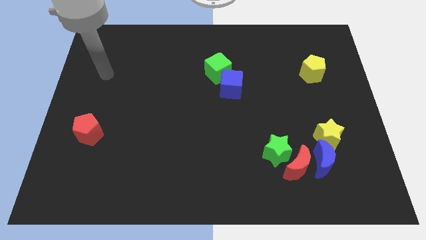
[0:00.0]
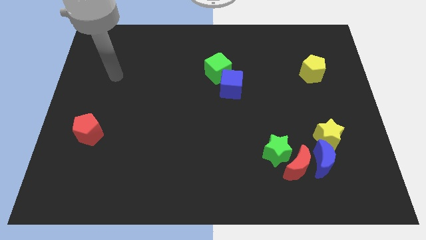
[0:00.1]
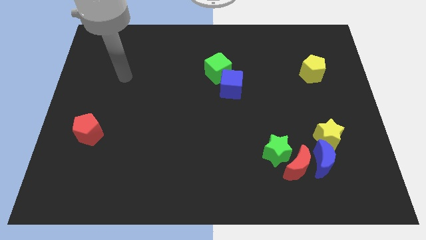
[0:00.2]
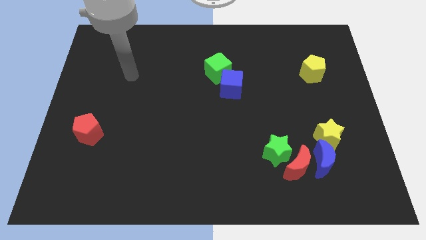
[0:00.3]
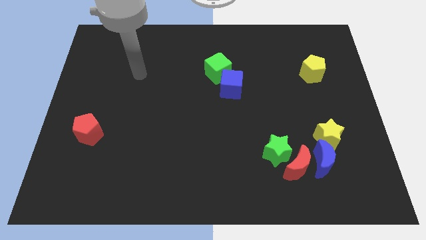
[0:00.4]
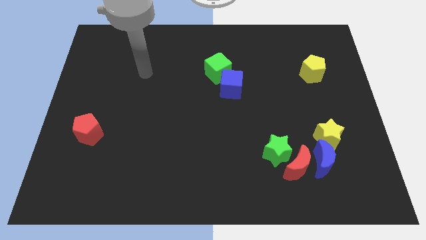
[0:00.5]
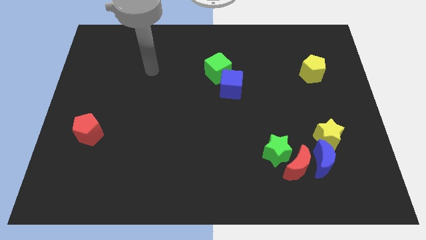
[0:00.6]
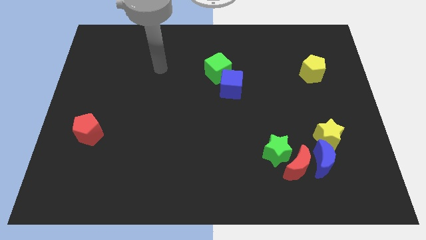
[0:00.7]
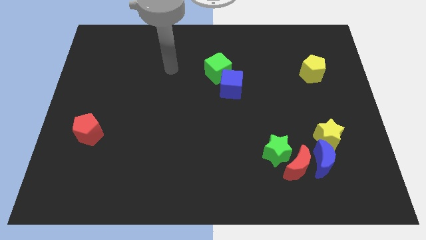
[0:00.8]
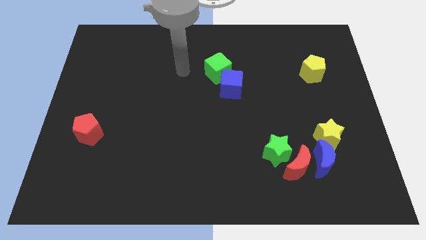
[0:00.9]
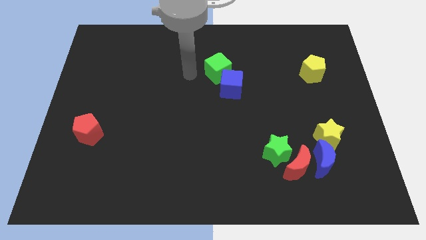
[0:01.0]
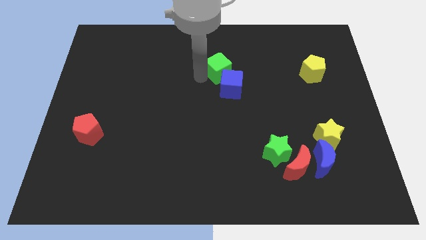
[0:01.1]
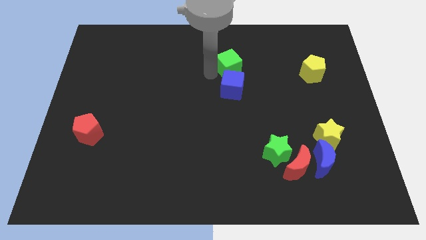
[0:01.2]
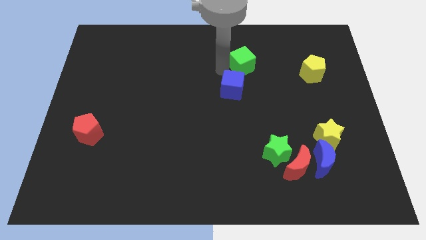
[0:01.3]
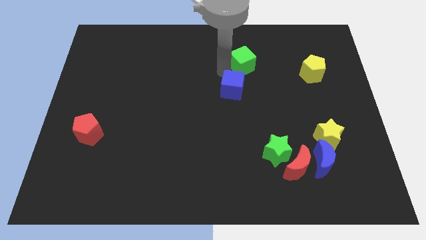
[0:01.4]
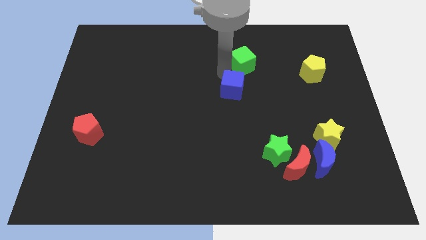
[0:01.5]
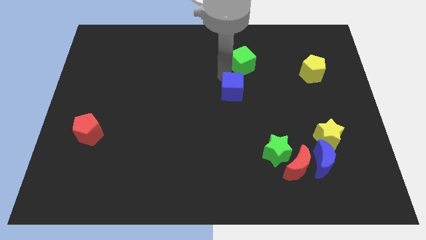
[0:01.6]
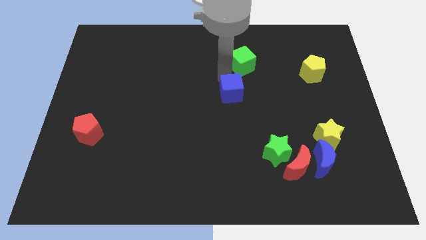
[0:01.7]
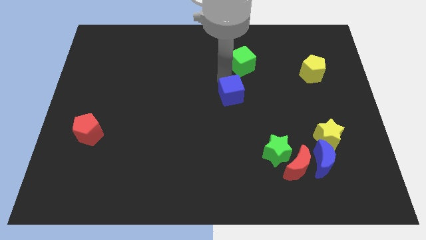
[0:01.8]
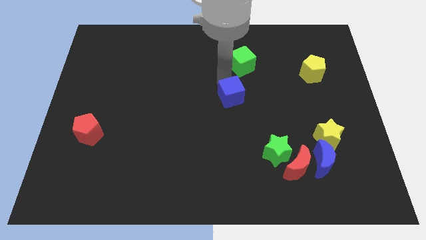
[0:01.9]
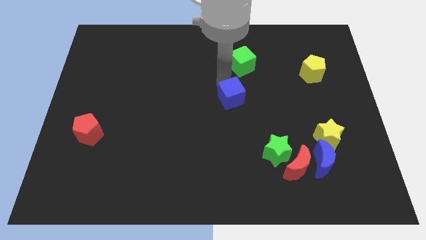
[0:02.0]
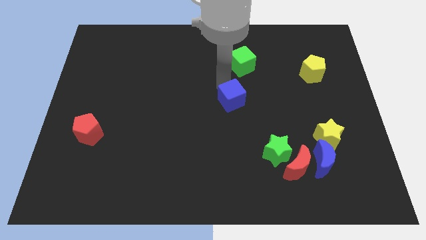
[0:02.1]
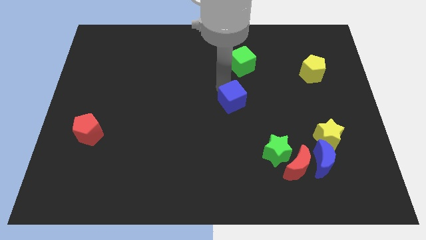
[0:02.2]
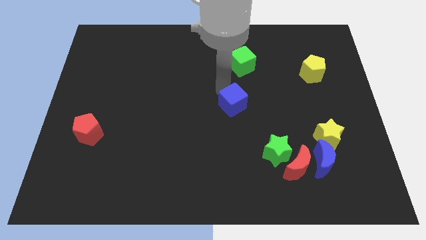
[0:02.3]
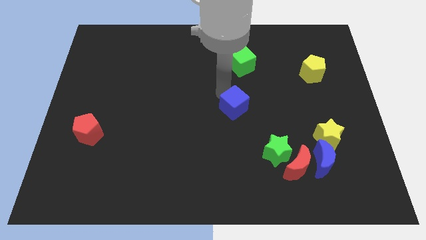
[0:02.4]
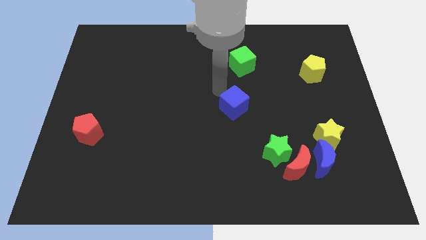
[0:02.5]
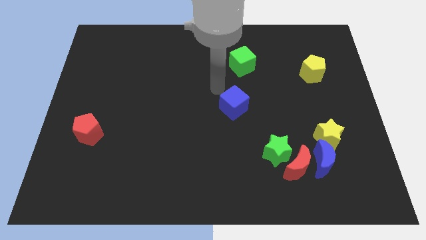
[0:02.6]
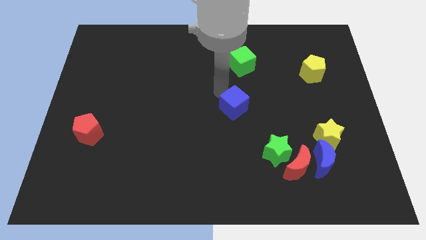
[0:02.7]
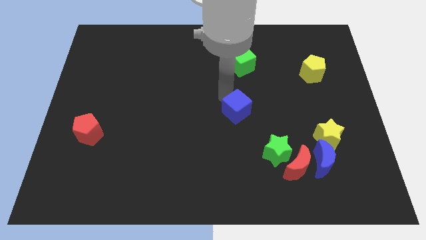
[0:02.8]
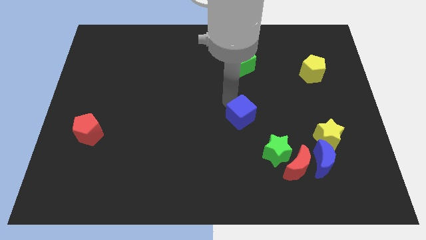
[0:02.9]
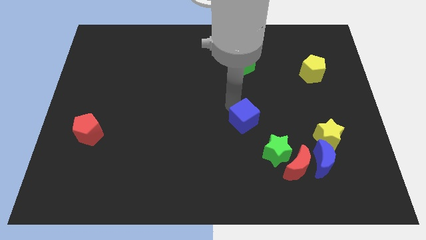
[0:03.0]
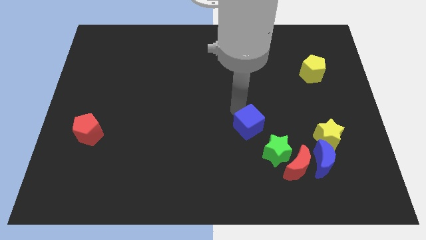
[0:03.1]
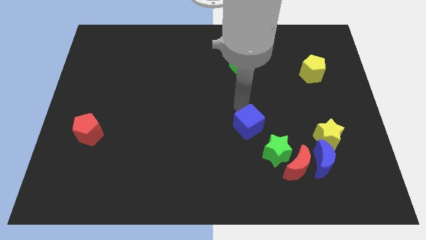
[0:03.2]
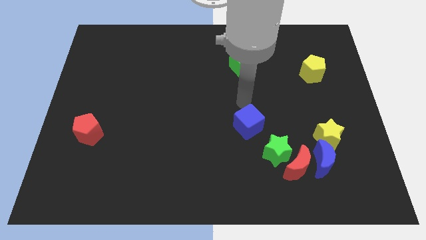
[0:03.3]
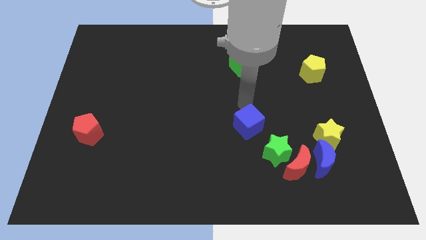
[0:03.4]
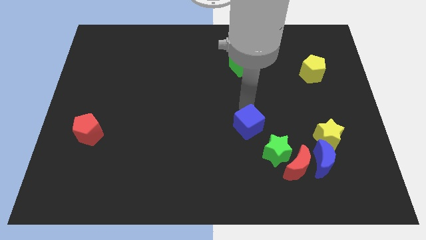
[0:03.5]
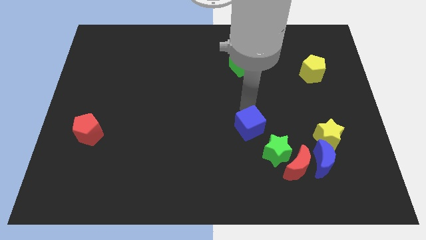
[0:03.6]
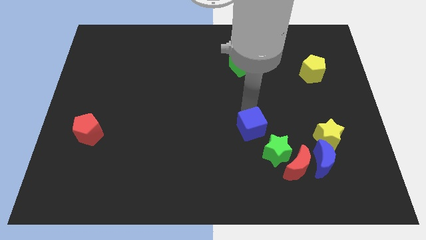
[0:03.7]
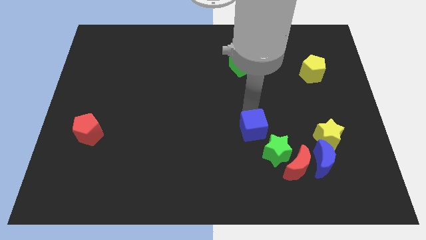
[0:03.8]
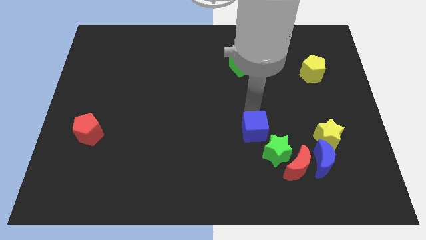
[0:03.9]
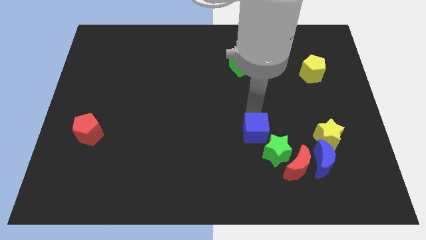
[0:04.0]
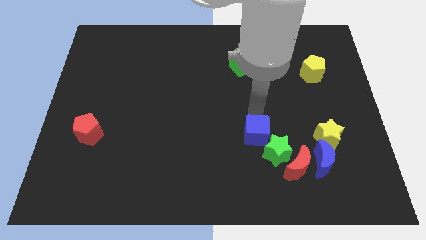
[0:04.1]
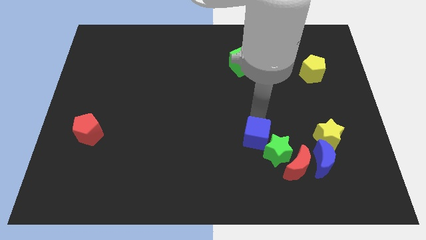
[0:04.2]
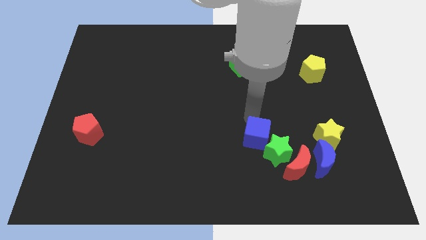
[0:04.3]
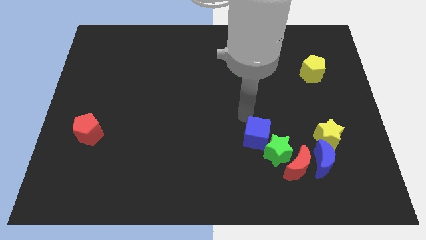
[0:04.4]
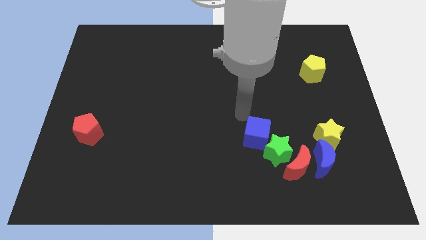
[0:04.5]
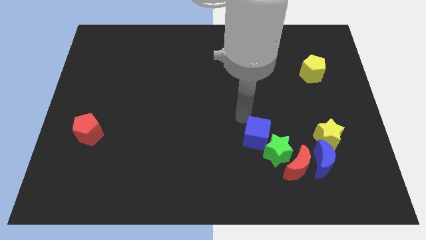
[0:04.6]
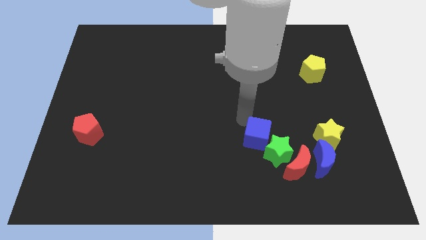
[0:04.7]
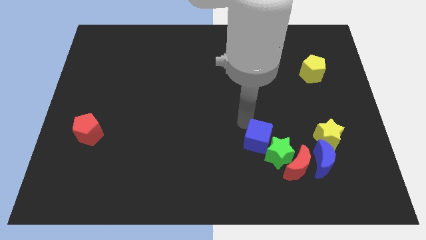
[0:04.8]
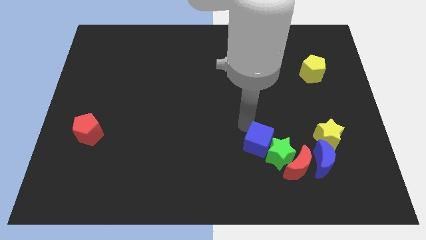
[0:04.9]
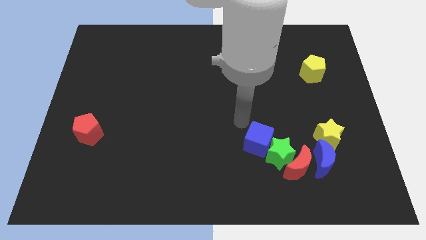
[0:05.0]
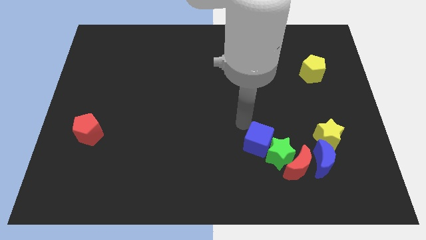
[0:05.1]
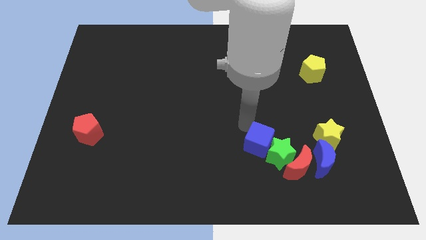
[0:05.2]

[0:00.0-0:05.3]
put the blue cube to the left side of the blue moon

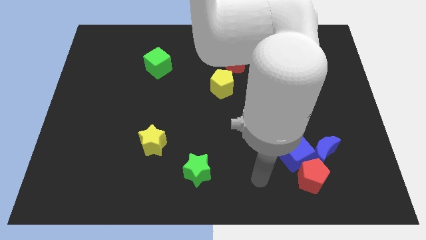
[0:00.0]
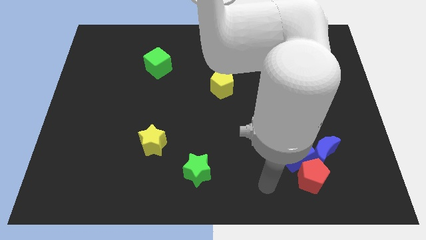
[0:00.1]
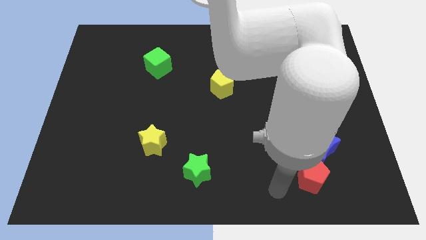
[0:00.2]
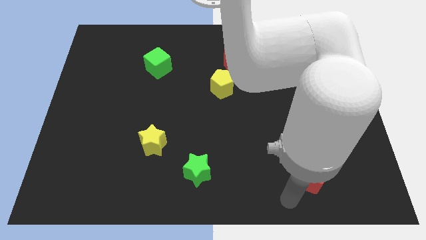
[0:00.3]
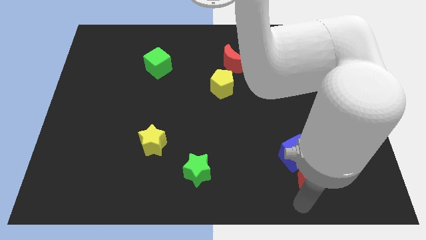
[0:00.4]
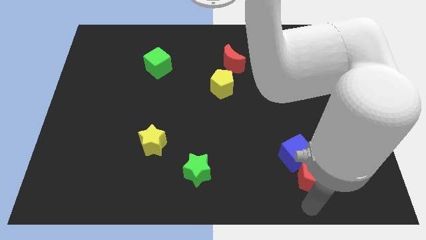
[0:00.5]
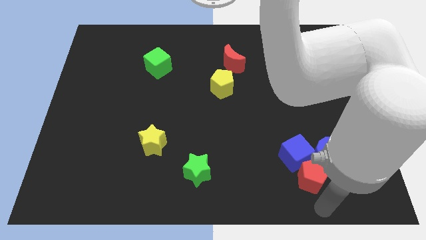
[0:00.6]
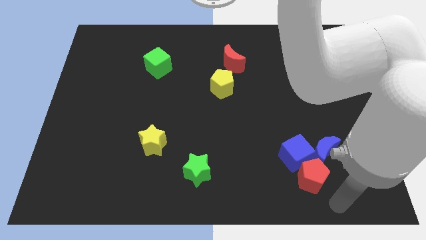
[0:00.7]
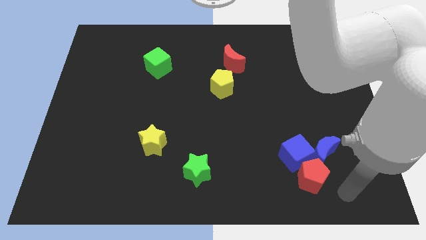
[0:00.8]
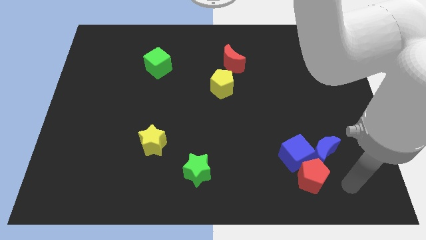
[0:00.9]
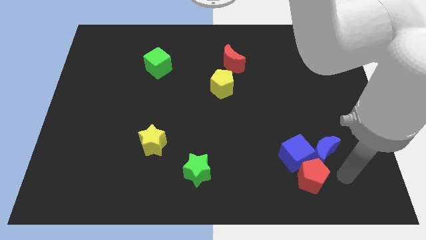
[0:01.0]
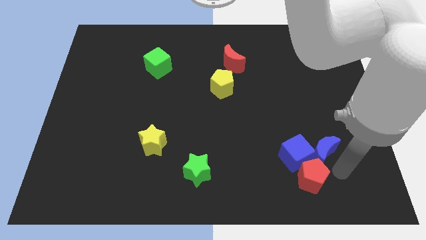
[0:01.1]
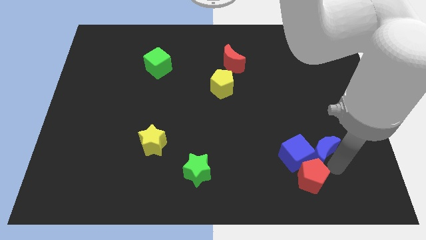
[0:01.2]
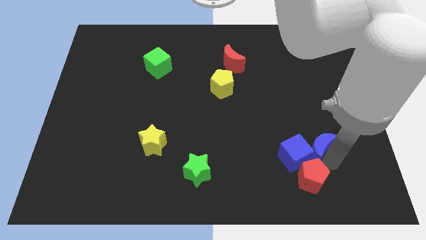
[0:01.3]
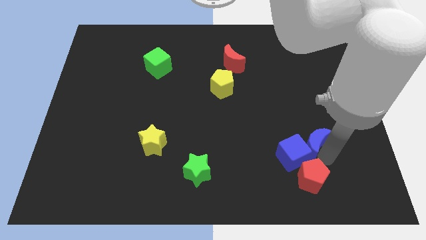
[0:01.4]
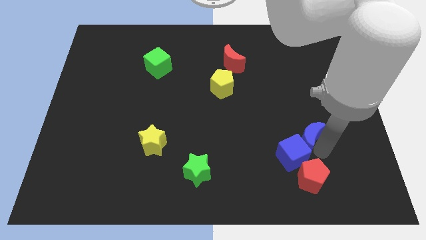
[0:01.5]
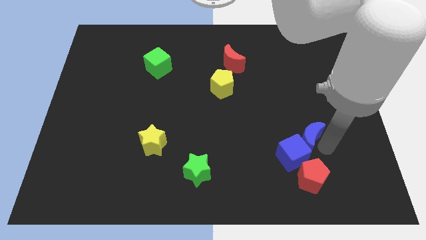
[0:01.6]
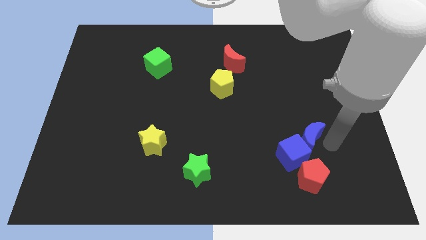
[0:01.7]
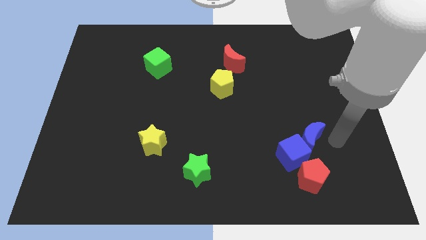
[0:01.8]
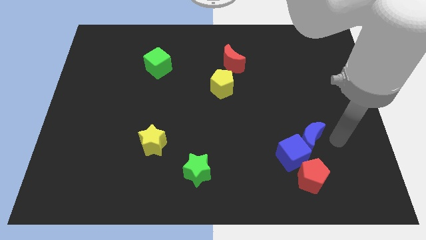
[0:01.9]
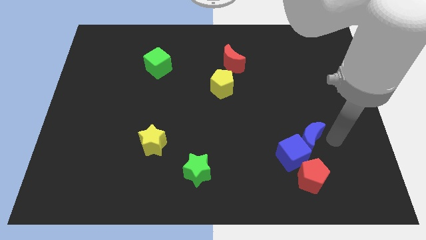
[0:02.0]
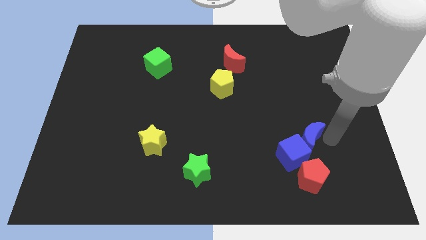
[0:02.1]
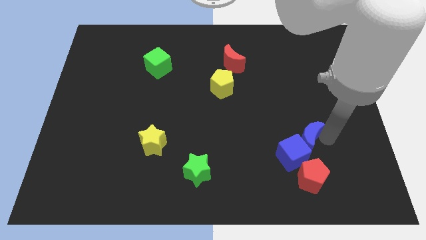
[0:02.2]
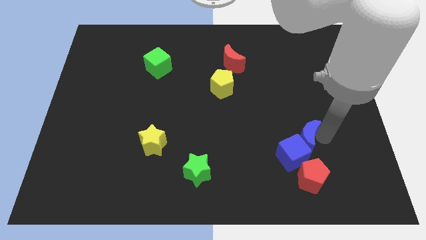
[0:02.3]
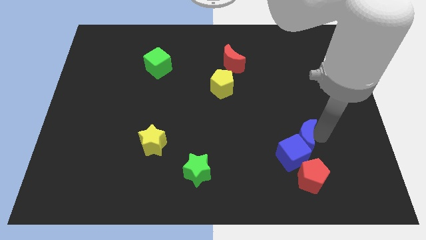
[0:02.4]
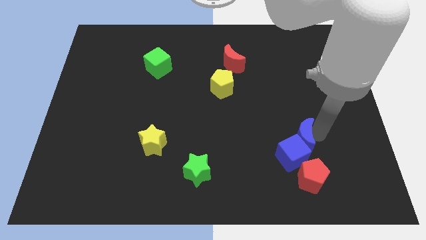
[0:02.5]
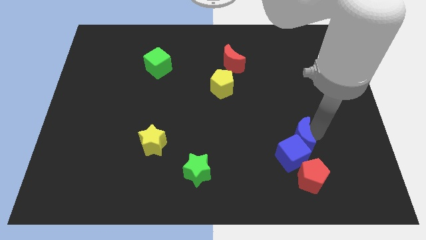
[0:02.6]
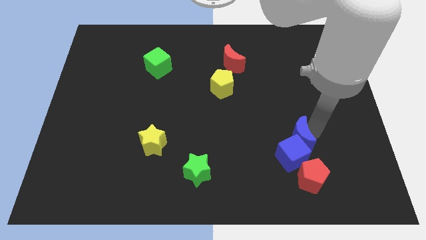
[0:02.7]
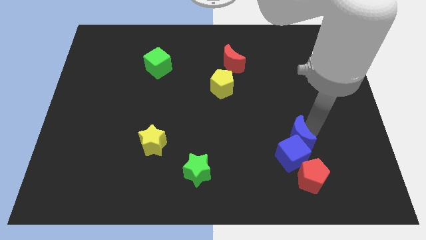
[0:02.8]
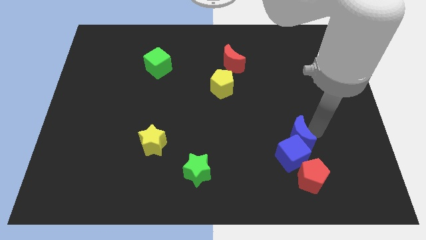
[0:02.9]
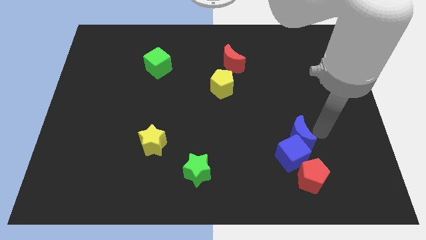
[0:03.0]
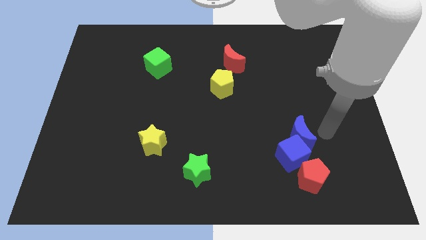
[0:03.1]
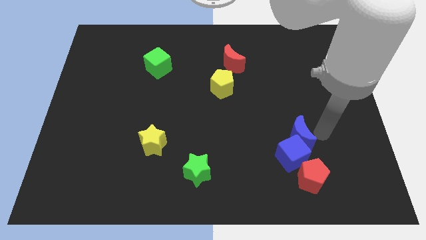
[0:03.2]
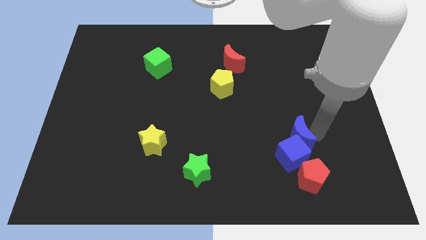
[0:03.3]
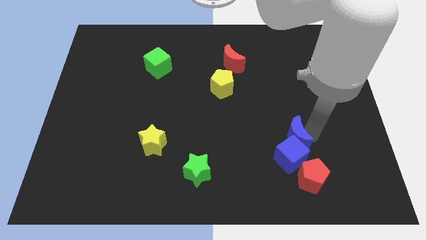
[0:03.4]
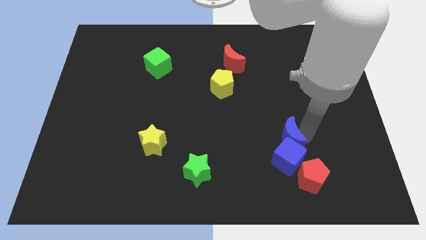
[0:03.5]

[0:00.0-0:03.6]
slide the blue moon diagonally up and to the left of the red pentagon
